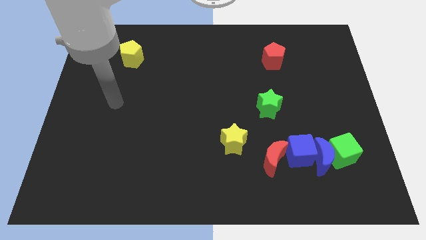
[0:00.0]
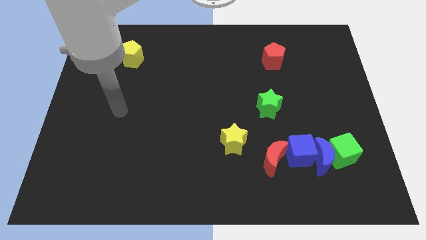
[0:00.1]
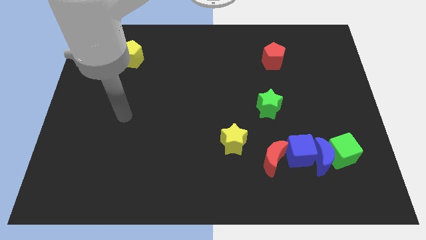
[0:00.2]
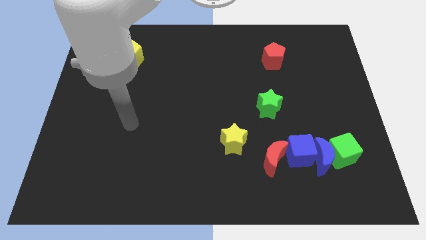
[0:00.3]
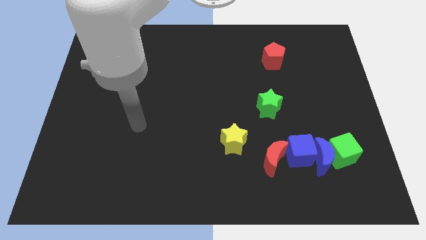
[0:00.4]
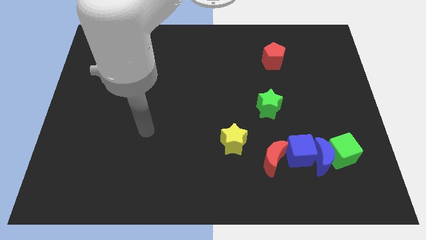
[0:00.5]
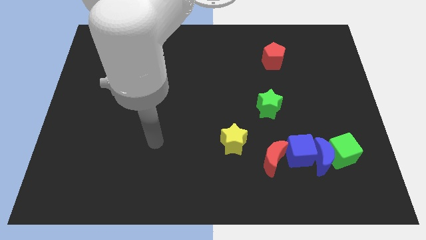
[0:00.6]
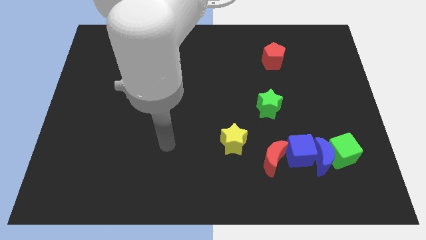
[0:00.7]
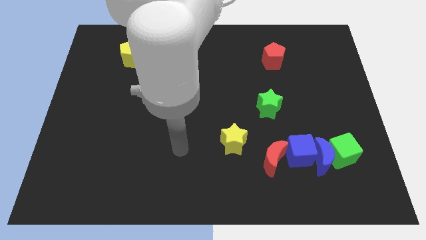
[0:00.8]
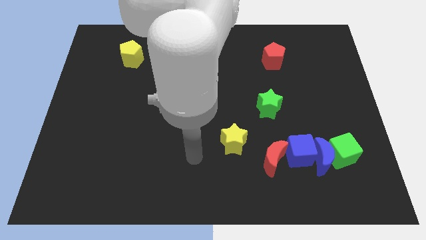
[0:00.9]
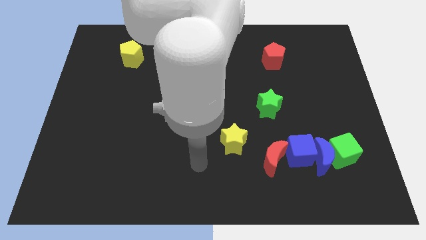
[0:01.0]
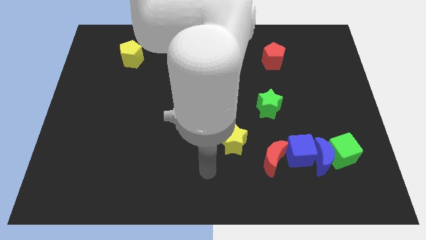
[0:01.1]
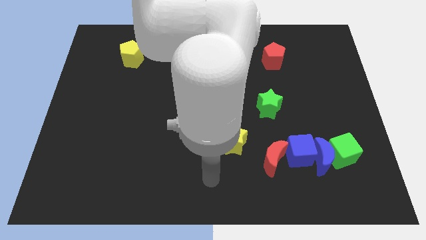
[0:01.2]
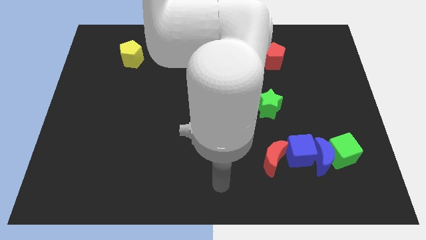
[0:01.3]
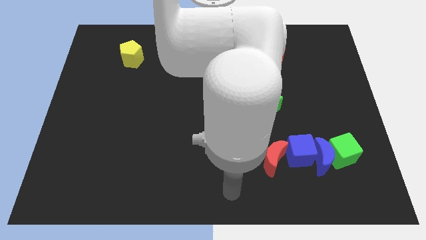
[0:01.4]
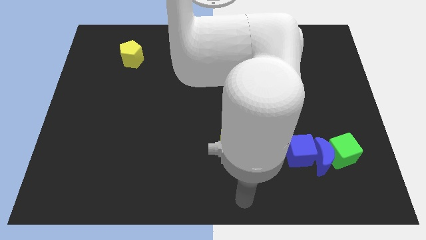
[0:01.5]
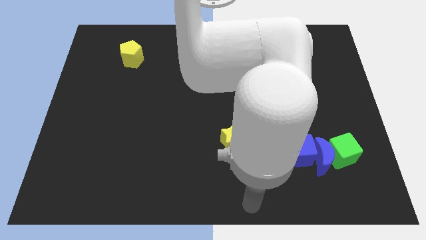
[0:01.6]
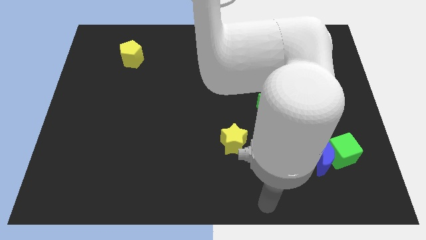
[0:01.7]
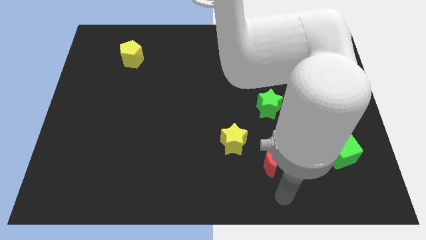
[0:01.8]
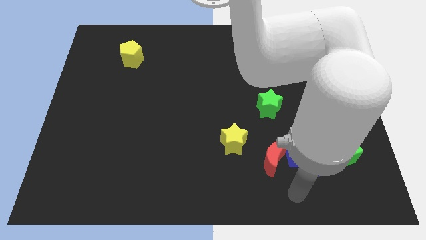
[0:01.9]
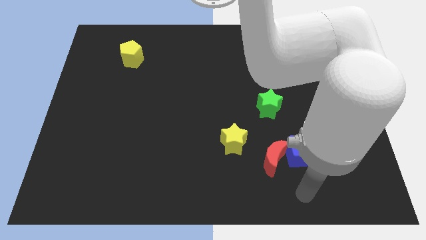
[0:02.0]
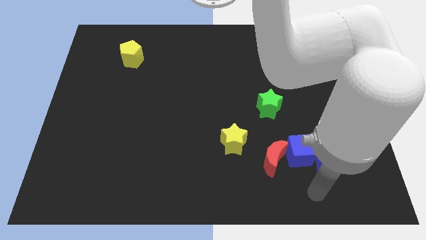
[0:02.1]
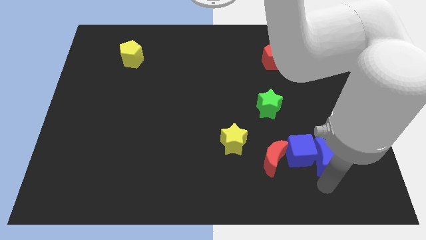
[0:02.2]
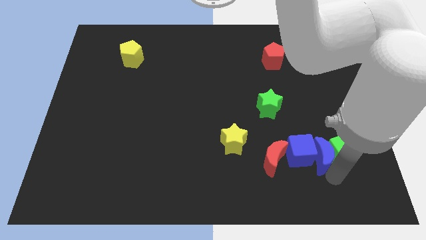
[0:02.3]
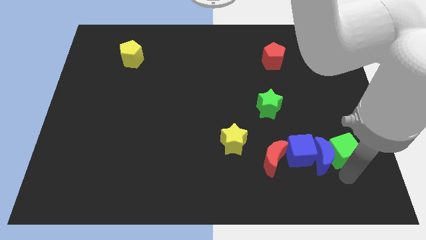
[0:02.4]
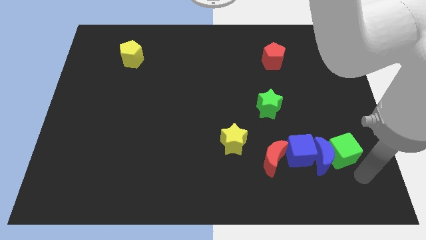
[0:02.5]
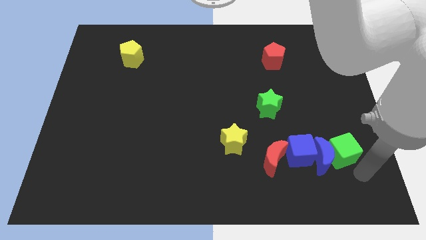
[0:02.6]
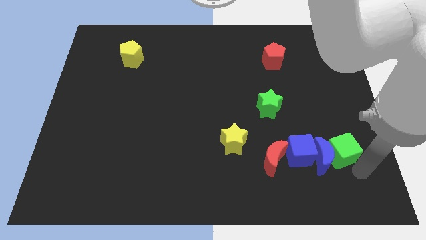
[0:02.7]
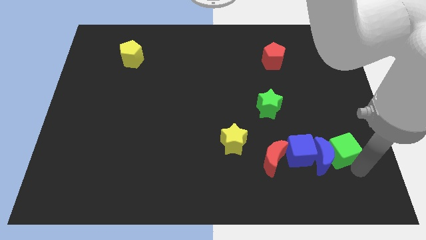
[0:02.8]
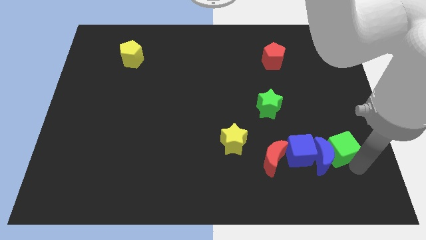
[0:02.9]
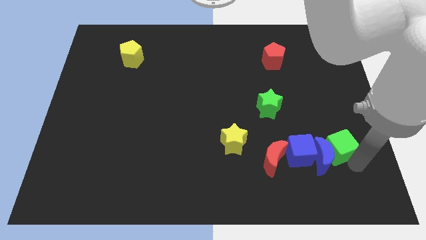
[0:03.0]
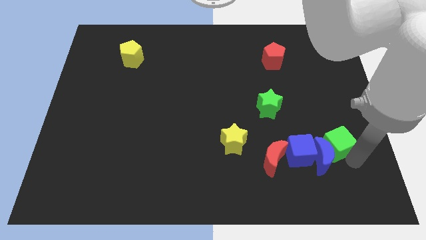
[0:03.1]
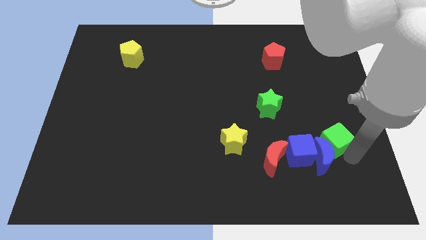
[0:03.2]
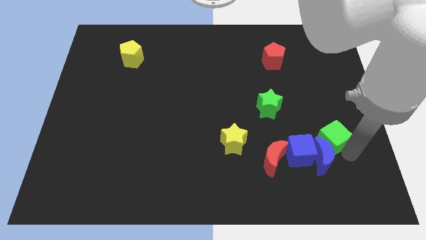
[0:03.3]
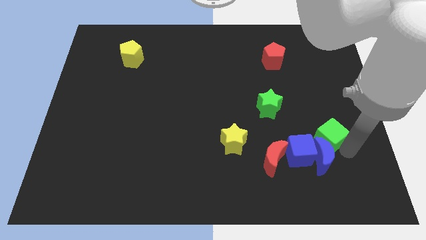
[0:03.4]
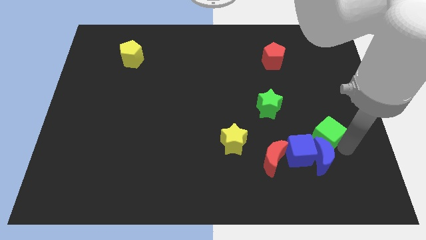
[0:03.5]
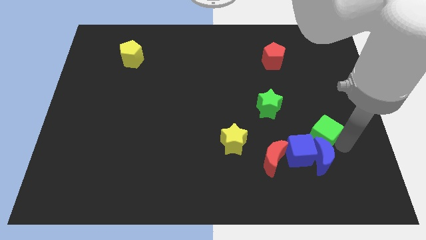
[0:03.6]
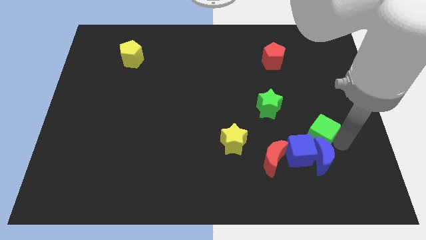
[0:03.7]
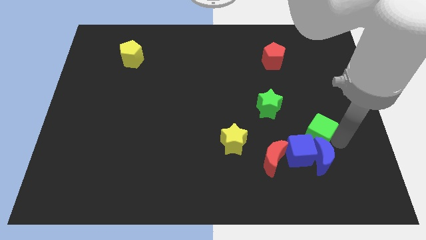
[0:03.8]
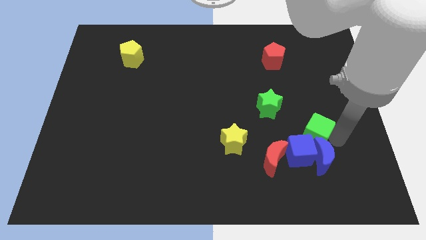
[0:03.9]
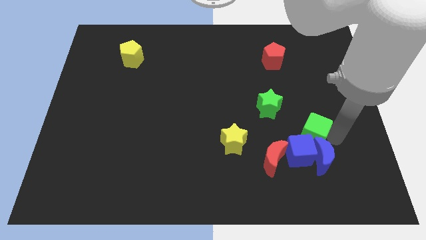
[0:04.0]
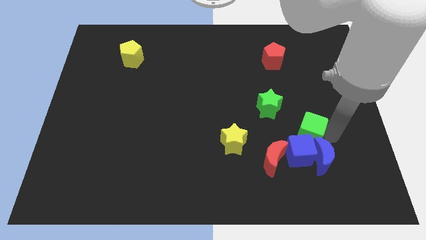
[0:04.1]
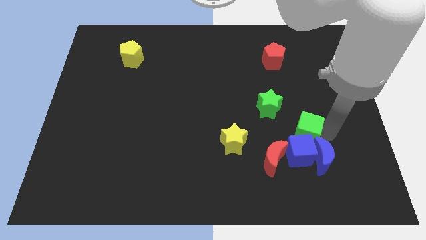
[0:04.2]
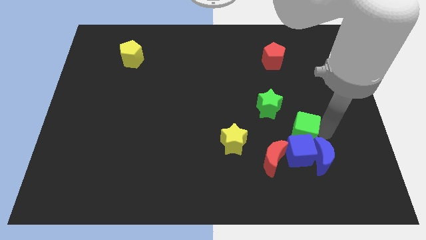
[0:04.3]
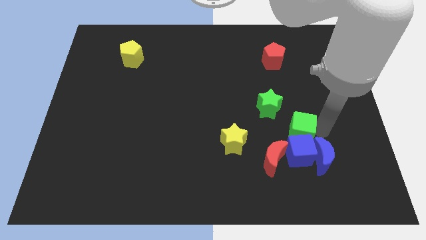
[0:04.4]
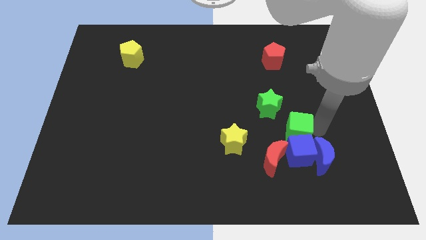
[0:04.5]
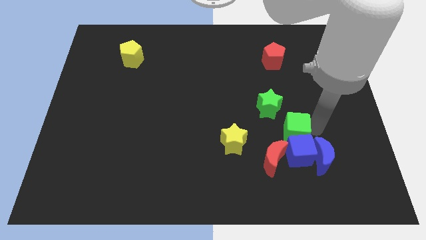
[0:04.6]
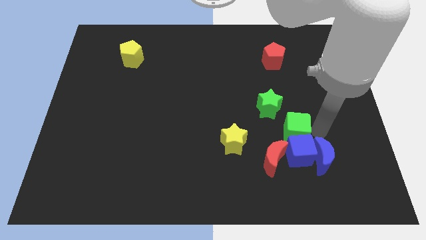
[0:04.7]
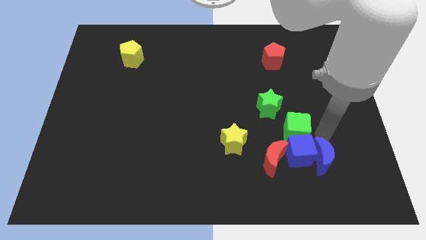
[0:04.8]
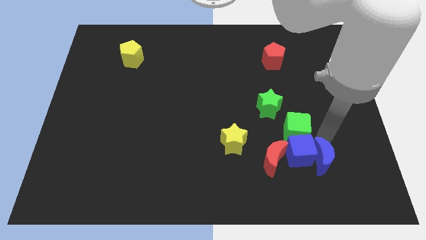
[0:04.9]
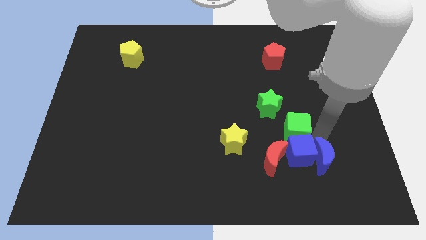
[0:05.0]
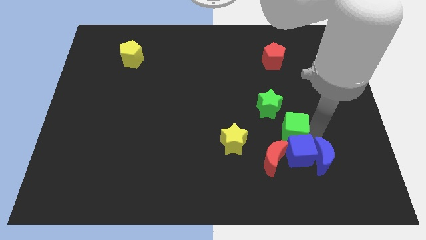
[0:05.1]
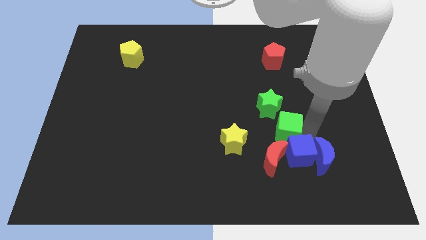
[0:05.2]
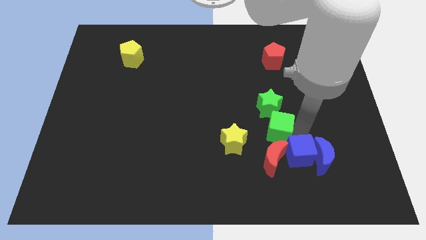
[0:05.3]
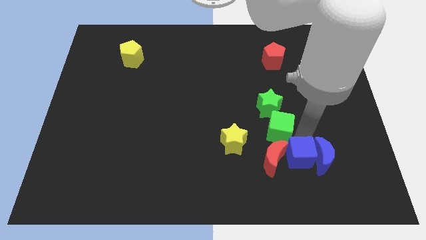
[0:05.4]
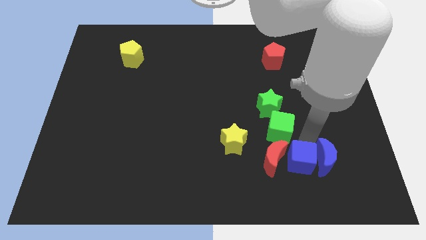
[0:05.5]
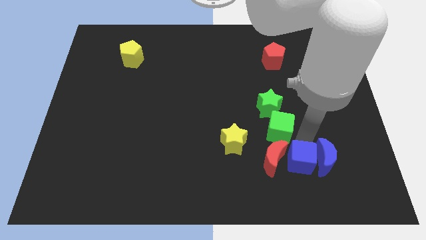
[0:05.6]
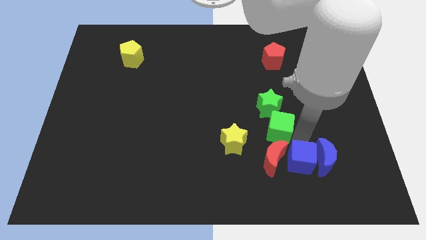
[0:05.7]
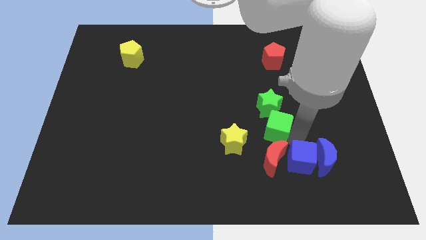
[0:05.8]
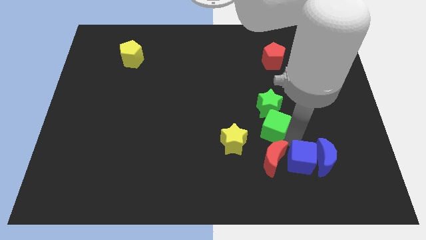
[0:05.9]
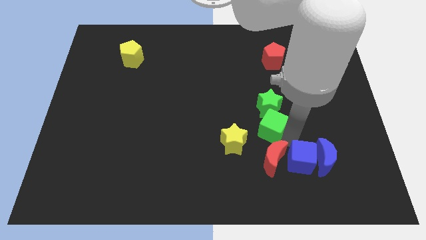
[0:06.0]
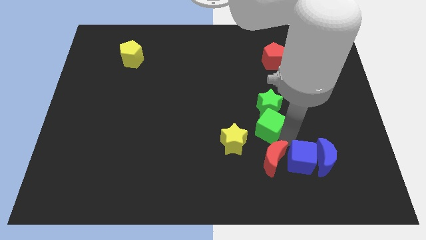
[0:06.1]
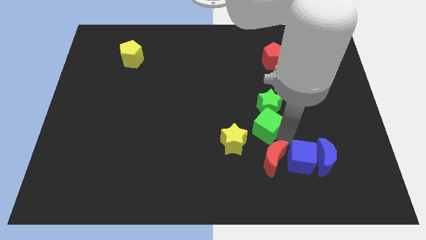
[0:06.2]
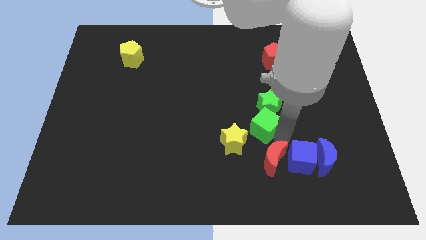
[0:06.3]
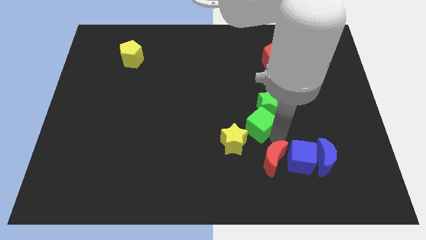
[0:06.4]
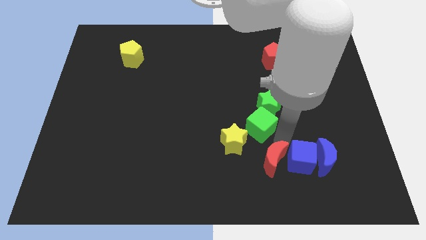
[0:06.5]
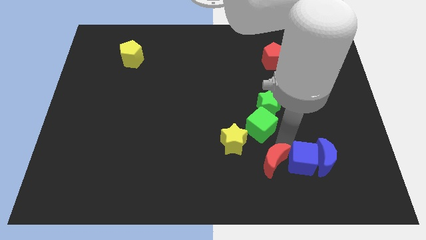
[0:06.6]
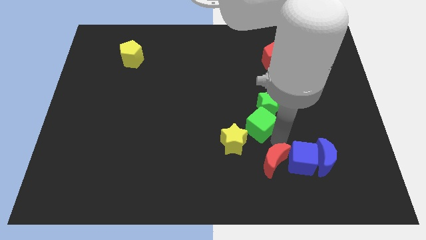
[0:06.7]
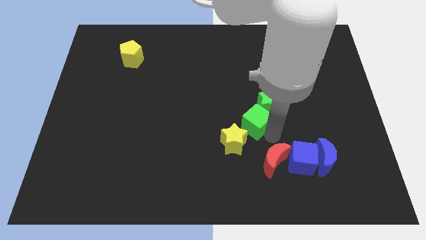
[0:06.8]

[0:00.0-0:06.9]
slide the green cube to the middle of the board
